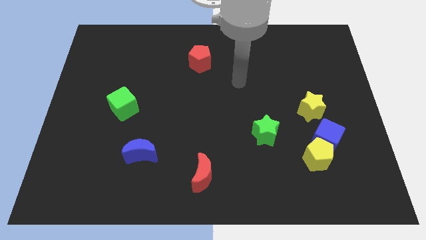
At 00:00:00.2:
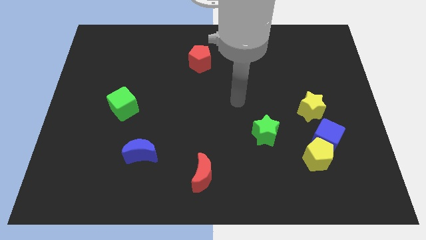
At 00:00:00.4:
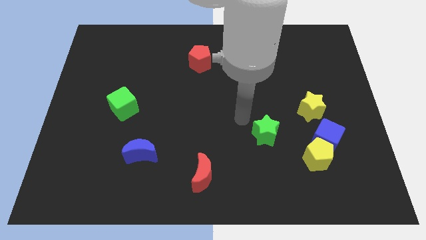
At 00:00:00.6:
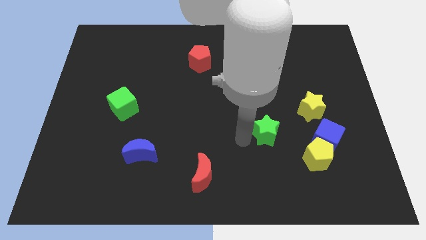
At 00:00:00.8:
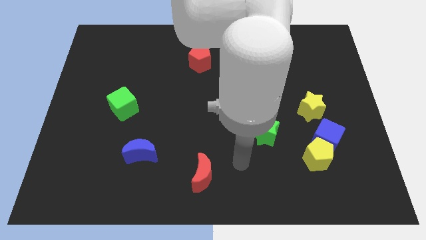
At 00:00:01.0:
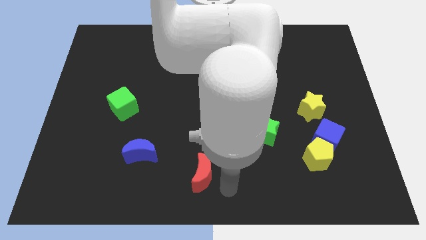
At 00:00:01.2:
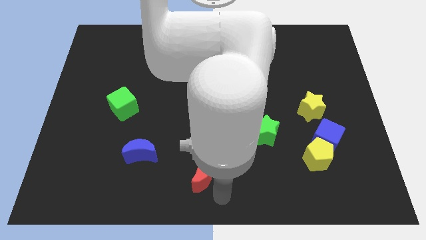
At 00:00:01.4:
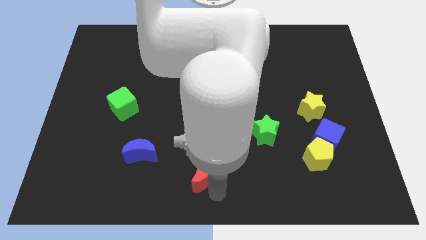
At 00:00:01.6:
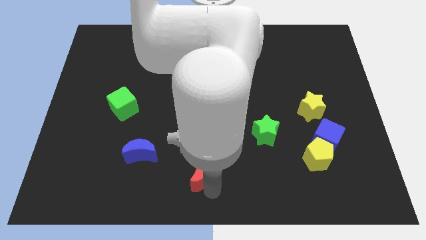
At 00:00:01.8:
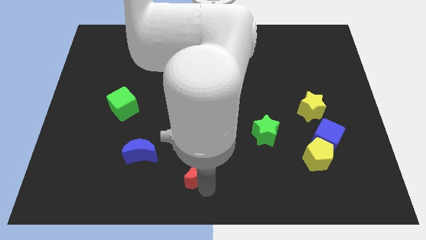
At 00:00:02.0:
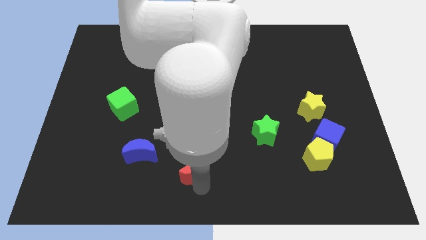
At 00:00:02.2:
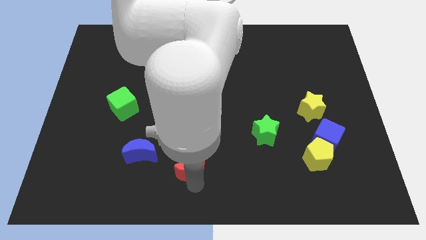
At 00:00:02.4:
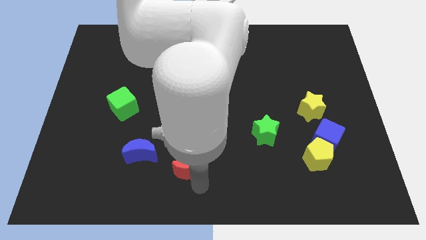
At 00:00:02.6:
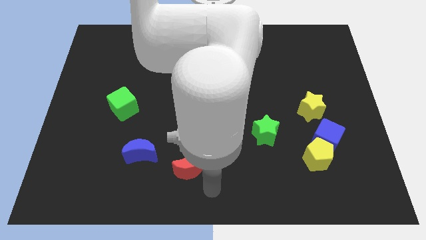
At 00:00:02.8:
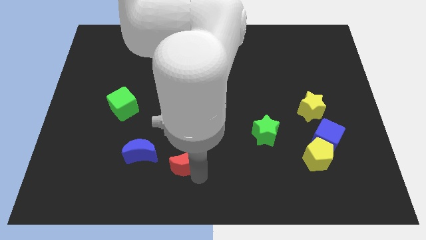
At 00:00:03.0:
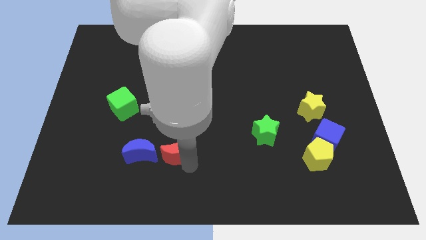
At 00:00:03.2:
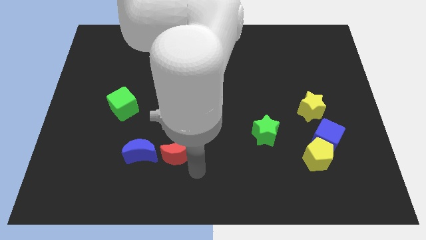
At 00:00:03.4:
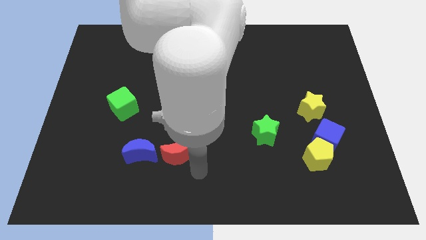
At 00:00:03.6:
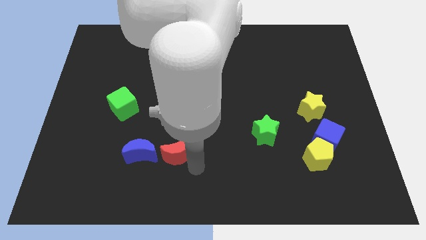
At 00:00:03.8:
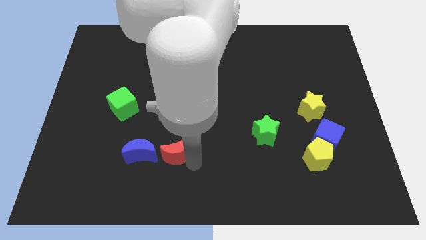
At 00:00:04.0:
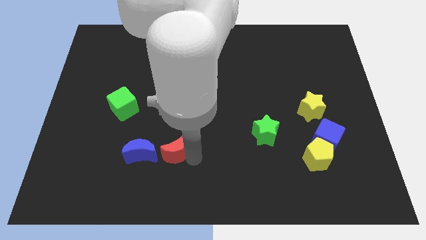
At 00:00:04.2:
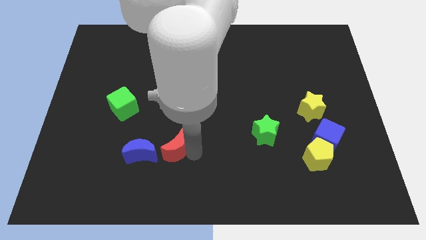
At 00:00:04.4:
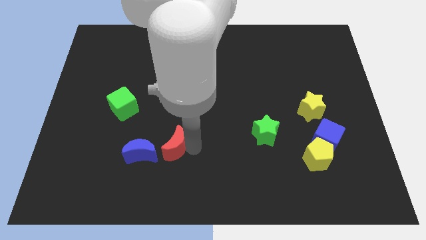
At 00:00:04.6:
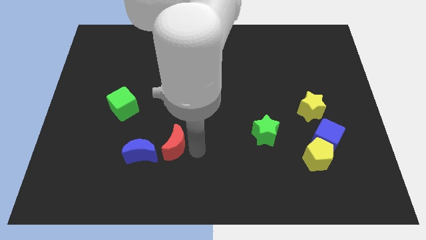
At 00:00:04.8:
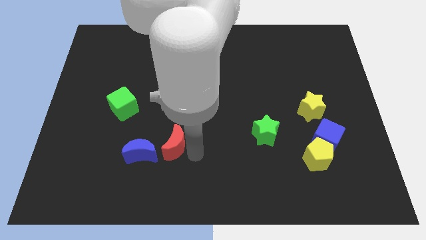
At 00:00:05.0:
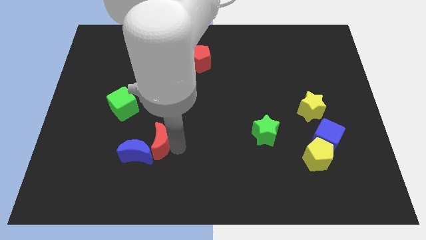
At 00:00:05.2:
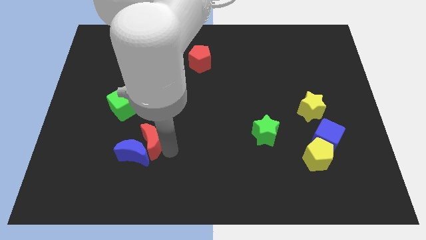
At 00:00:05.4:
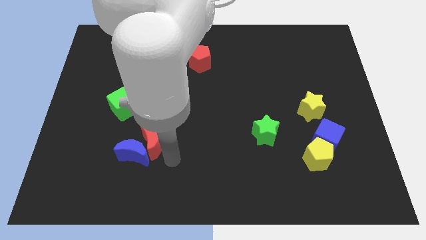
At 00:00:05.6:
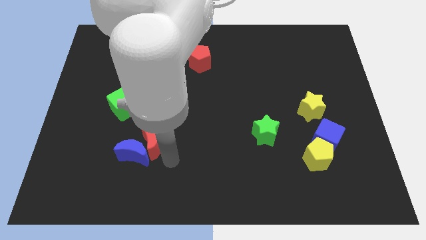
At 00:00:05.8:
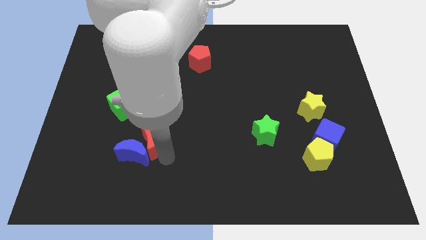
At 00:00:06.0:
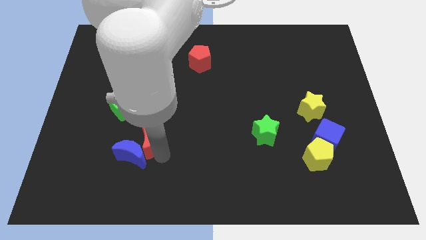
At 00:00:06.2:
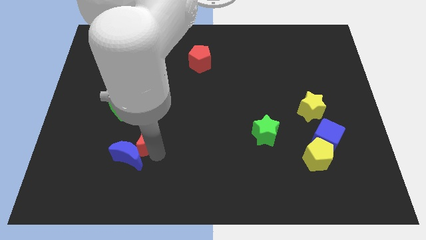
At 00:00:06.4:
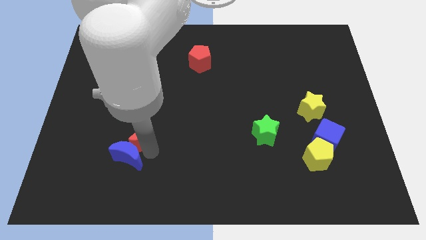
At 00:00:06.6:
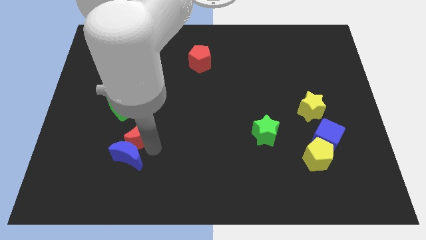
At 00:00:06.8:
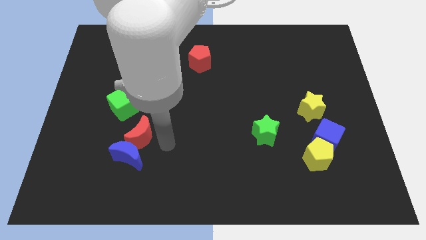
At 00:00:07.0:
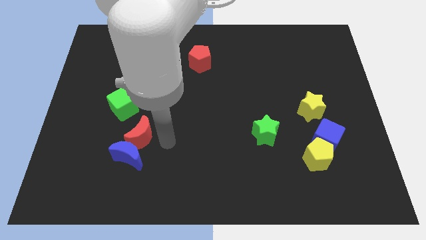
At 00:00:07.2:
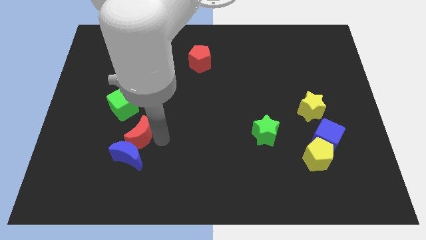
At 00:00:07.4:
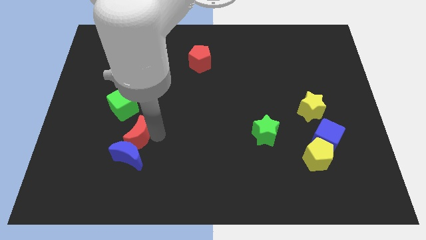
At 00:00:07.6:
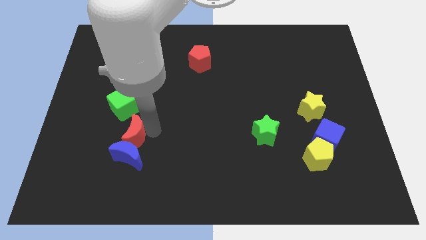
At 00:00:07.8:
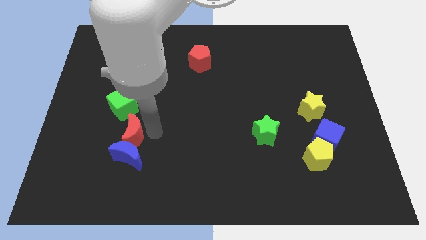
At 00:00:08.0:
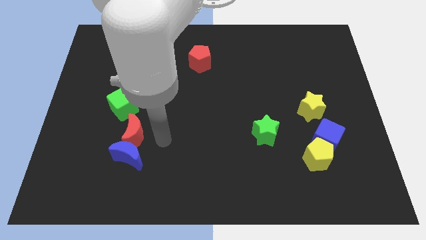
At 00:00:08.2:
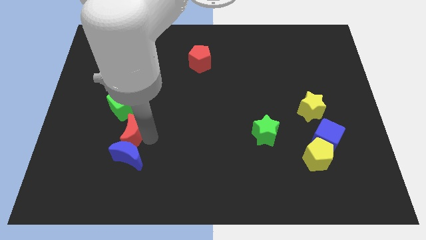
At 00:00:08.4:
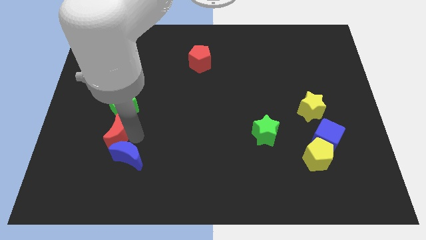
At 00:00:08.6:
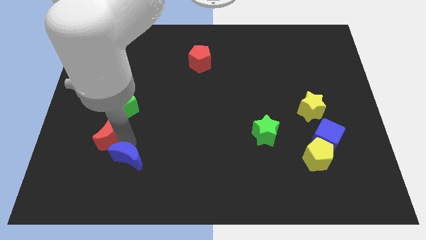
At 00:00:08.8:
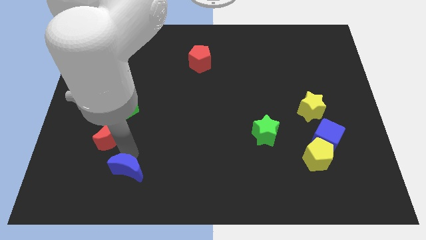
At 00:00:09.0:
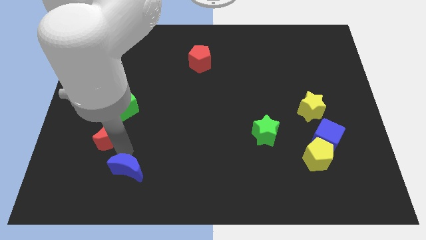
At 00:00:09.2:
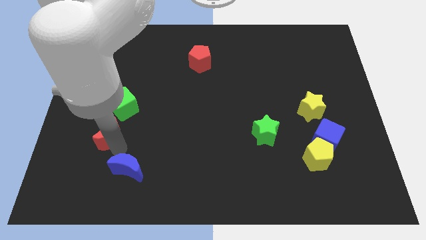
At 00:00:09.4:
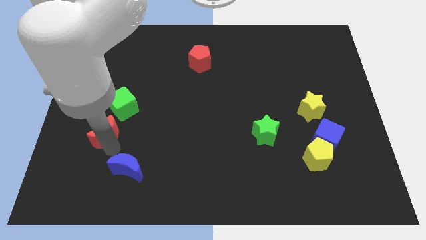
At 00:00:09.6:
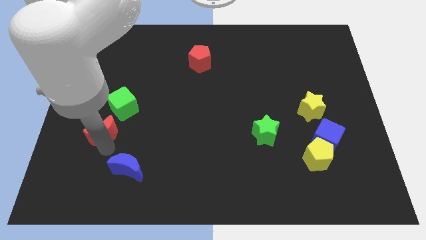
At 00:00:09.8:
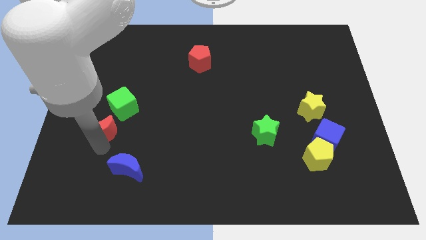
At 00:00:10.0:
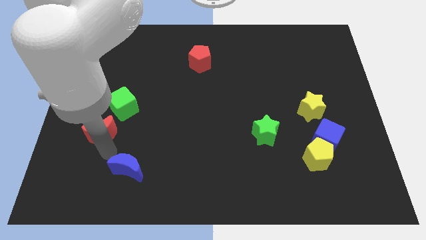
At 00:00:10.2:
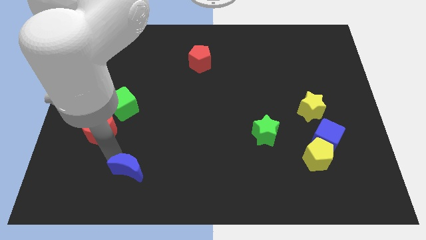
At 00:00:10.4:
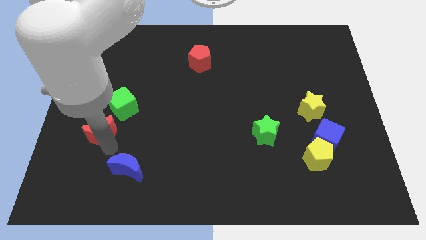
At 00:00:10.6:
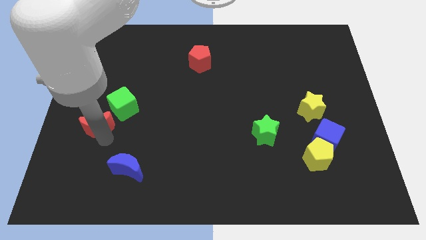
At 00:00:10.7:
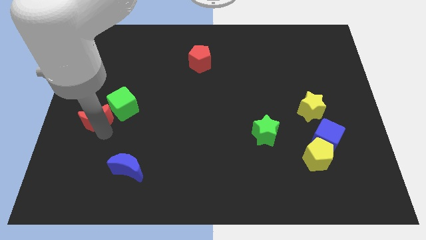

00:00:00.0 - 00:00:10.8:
push the red moon to the center left
